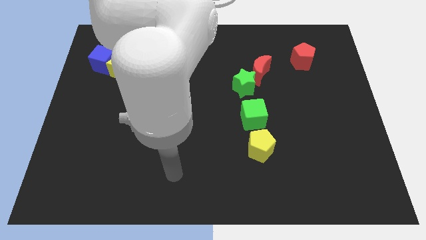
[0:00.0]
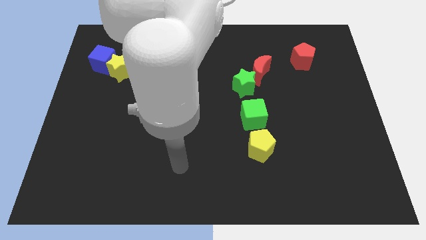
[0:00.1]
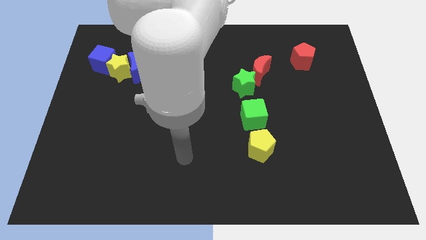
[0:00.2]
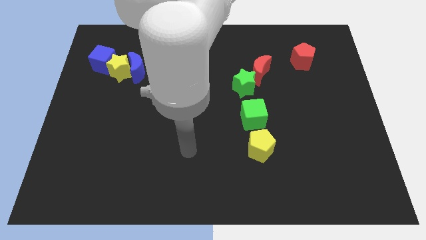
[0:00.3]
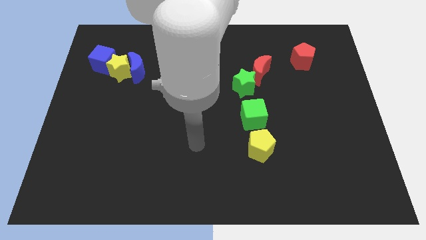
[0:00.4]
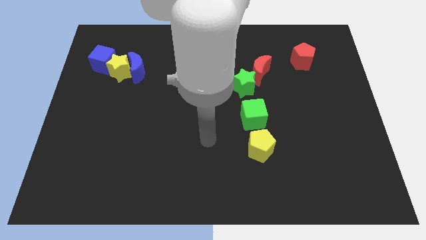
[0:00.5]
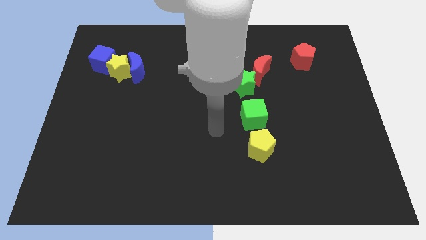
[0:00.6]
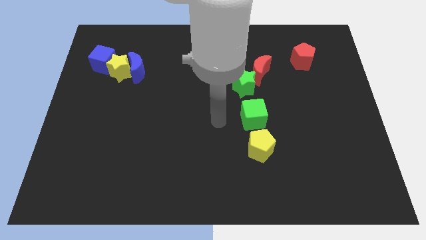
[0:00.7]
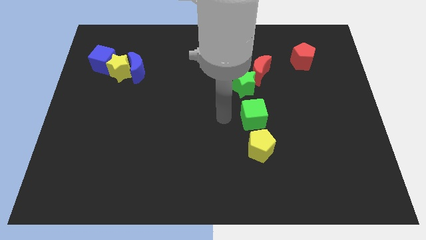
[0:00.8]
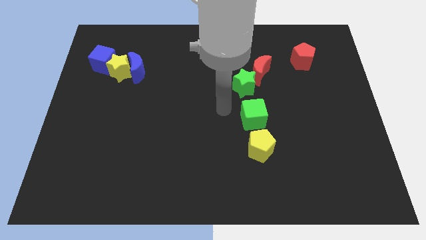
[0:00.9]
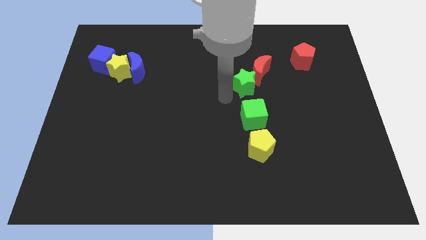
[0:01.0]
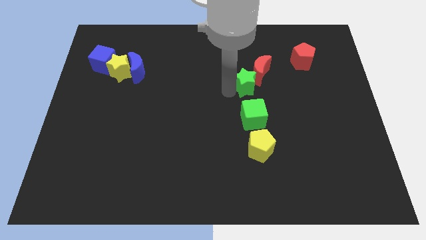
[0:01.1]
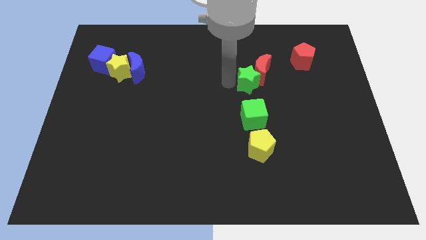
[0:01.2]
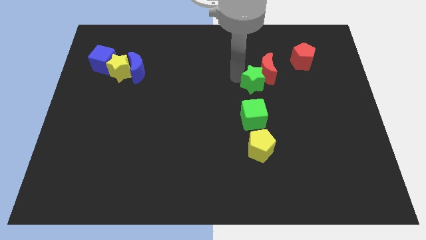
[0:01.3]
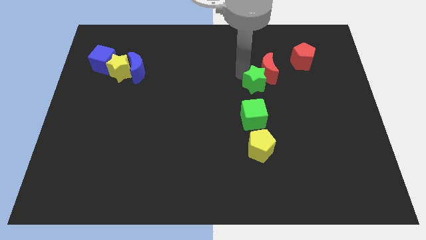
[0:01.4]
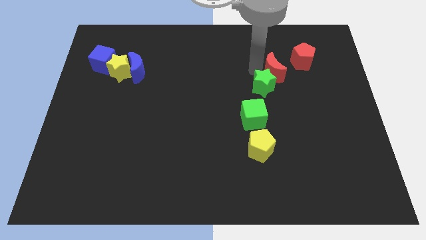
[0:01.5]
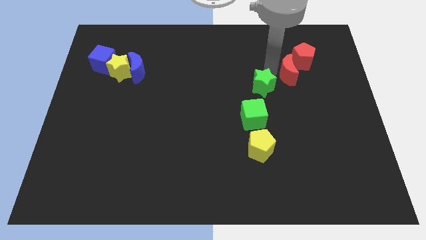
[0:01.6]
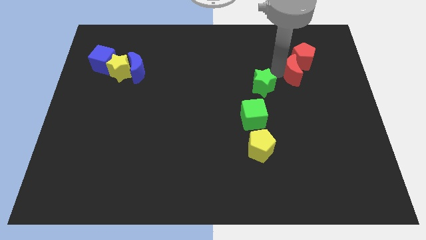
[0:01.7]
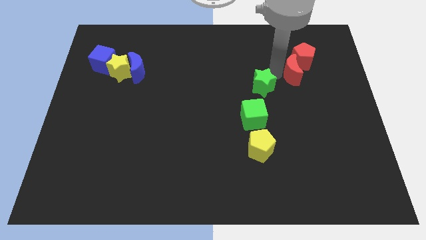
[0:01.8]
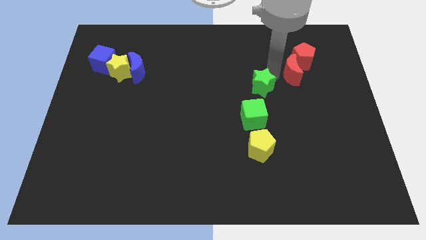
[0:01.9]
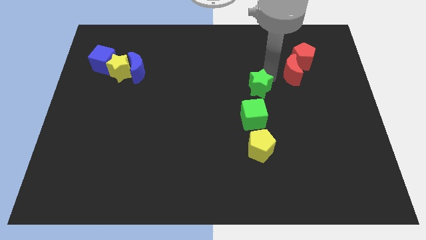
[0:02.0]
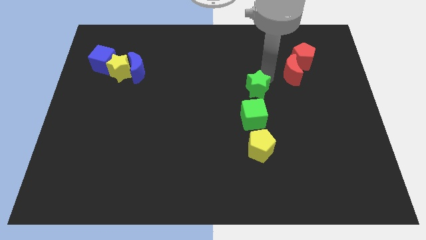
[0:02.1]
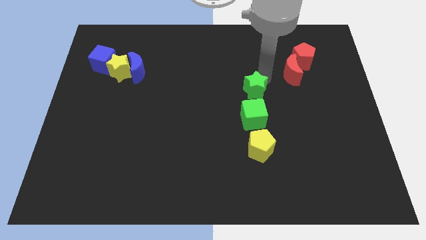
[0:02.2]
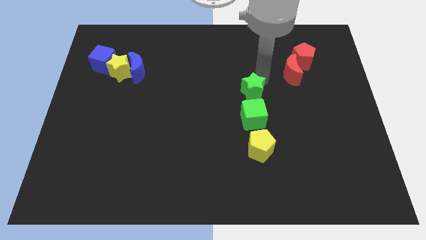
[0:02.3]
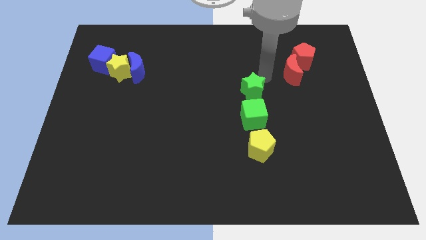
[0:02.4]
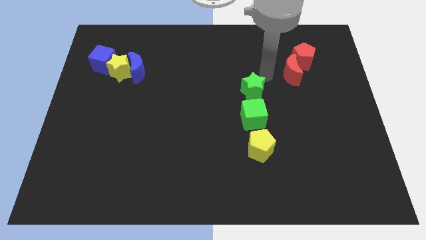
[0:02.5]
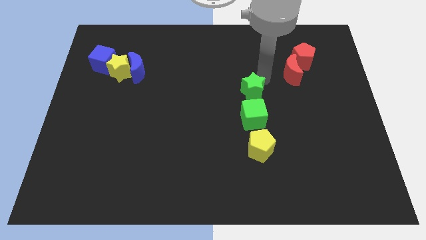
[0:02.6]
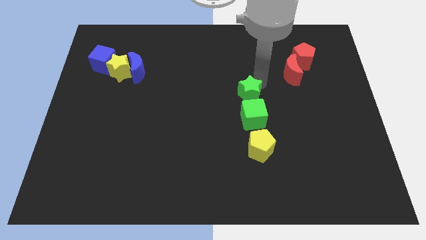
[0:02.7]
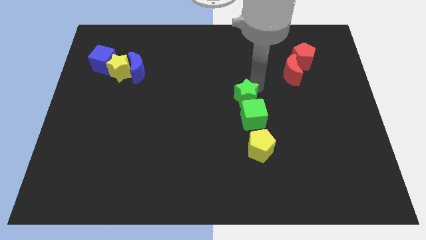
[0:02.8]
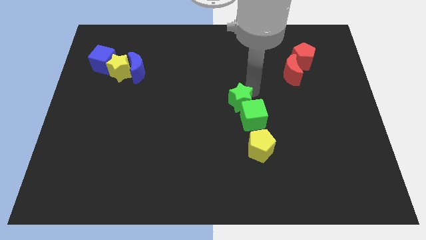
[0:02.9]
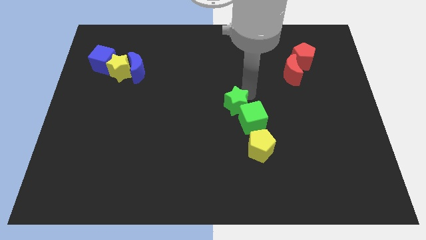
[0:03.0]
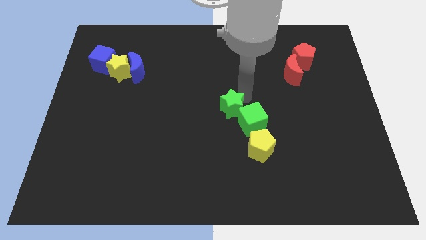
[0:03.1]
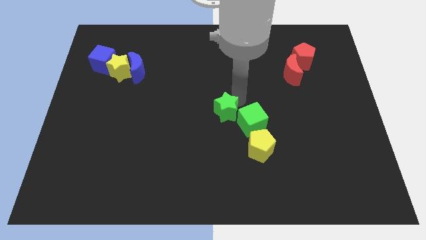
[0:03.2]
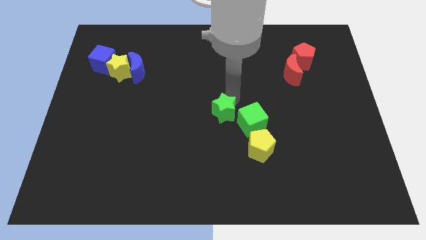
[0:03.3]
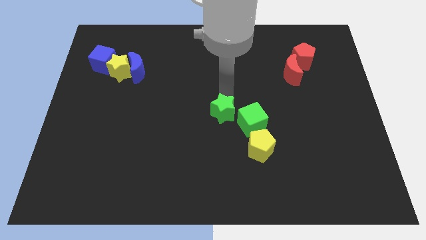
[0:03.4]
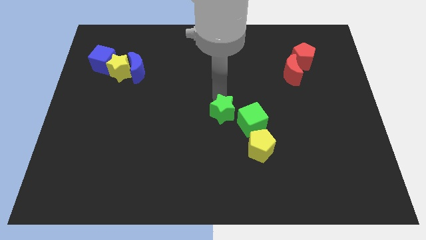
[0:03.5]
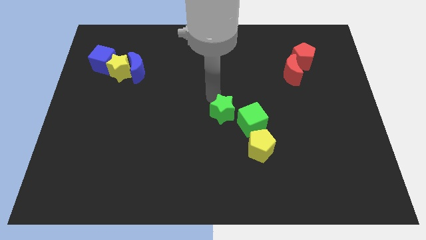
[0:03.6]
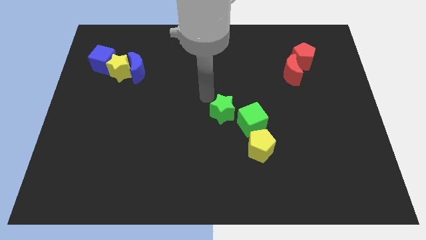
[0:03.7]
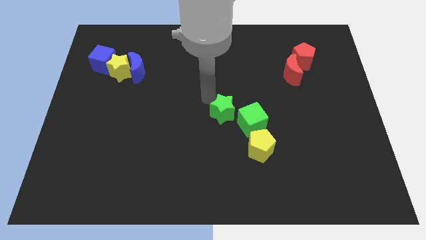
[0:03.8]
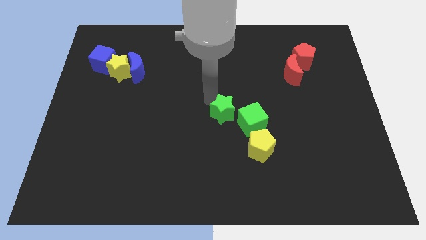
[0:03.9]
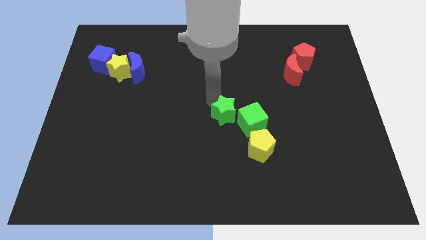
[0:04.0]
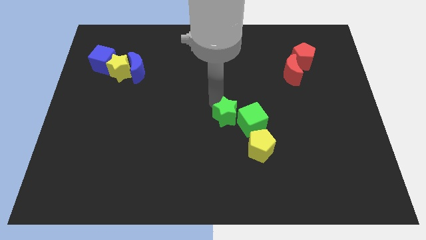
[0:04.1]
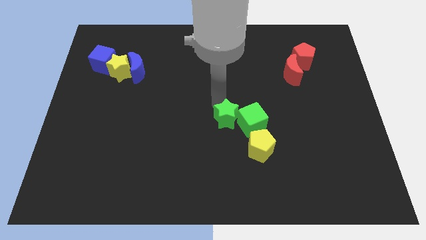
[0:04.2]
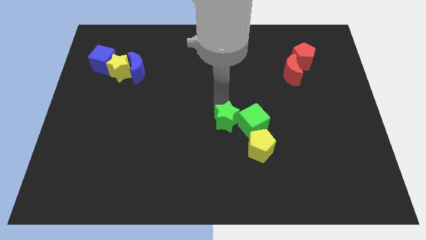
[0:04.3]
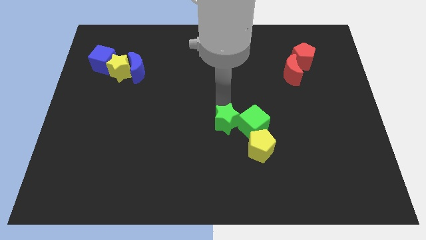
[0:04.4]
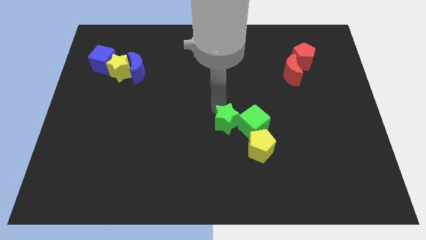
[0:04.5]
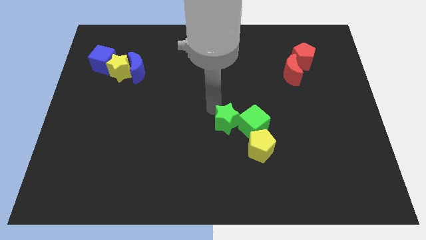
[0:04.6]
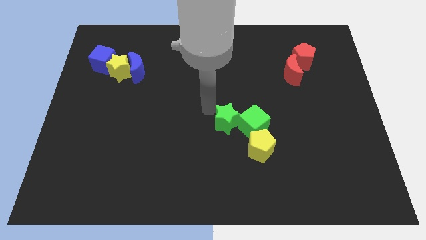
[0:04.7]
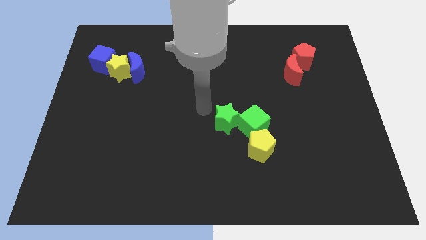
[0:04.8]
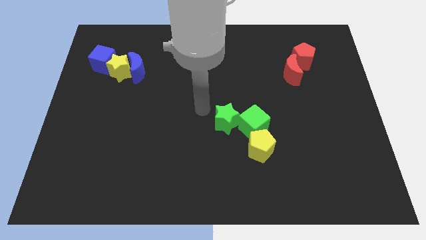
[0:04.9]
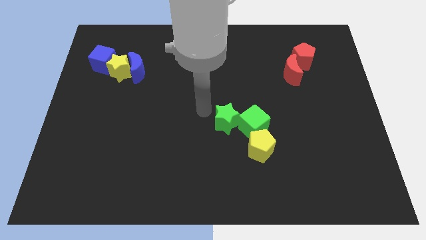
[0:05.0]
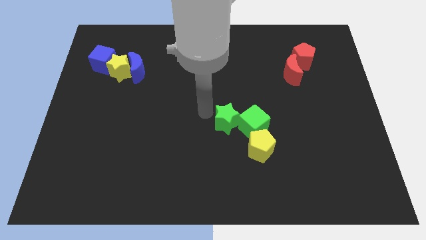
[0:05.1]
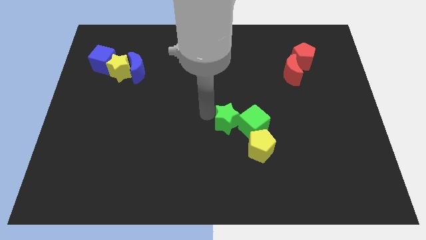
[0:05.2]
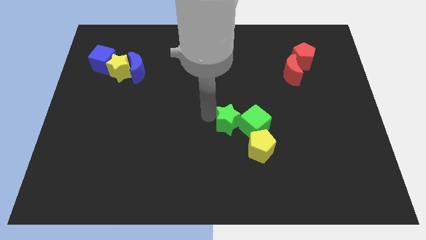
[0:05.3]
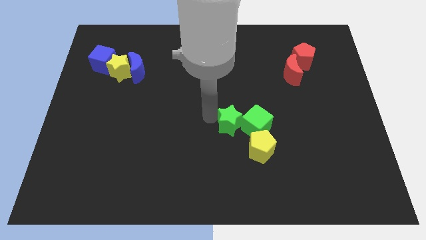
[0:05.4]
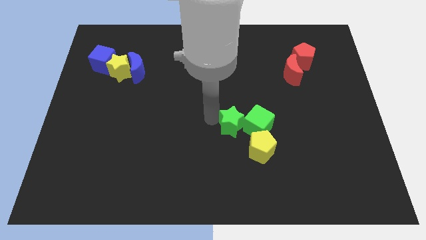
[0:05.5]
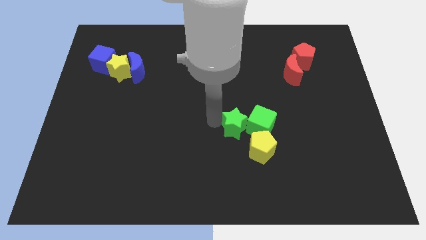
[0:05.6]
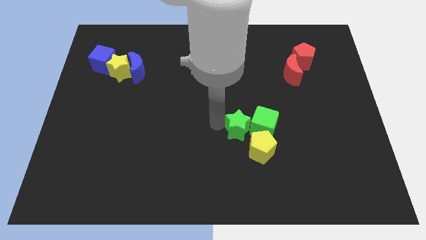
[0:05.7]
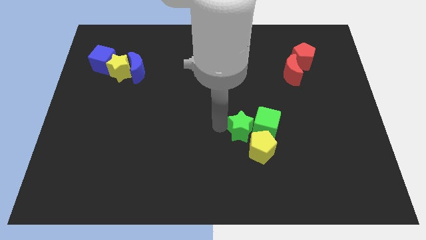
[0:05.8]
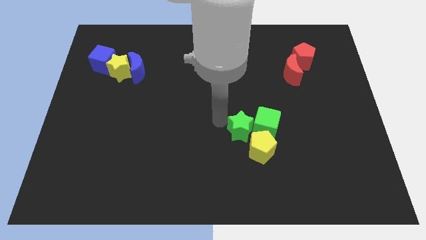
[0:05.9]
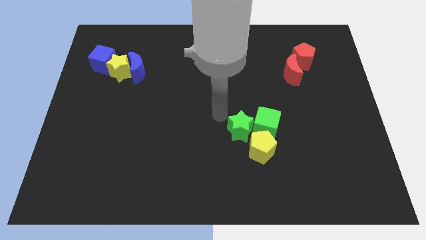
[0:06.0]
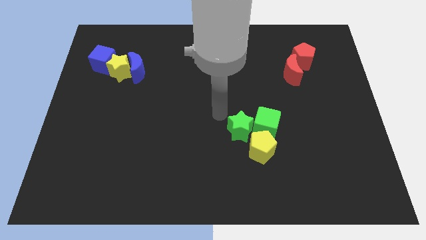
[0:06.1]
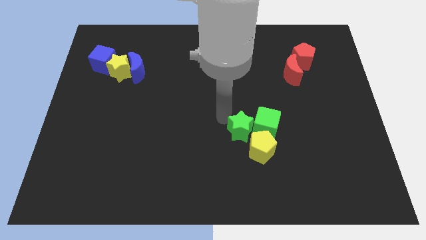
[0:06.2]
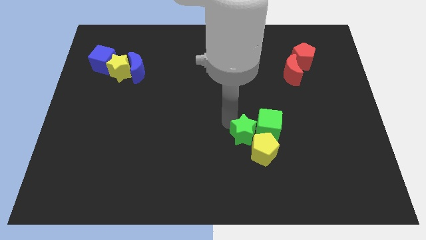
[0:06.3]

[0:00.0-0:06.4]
move the green star to the yellow pentagon

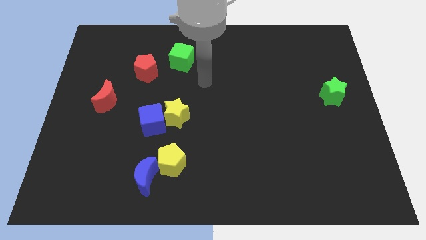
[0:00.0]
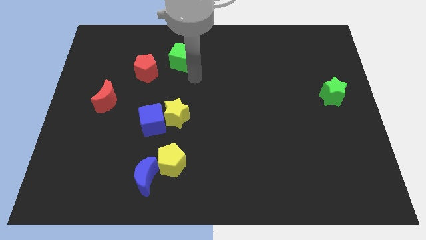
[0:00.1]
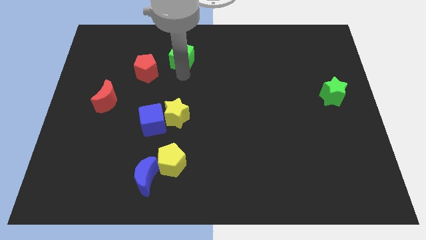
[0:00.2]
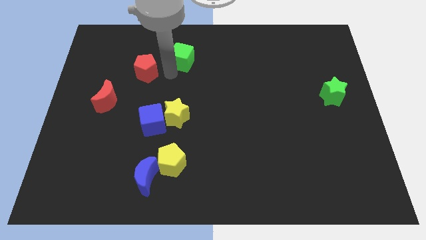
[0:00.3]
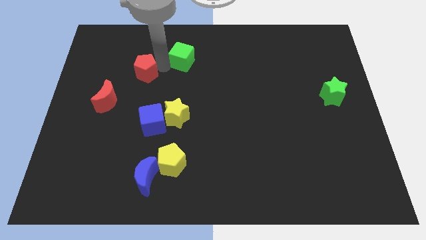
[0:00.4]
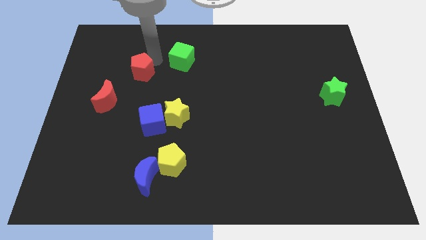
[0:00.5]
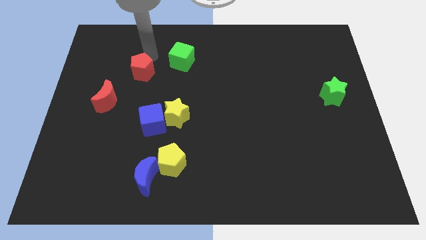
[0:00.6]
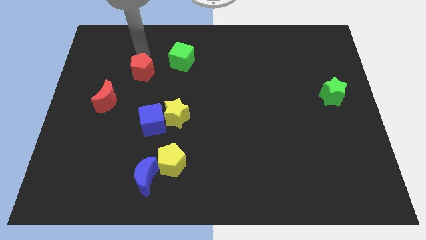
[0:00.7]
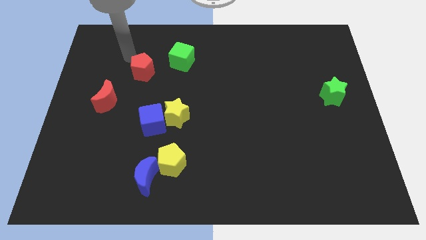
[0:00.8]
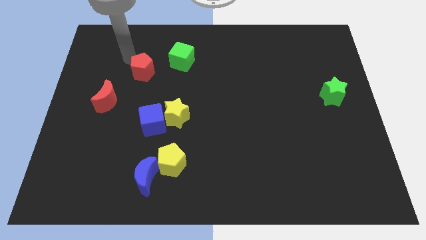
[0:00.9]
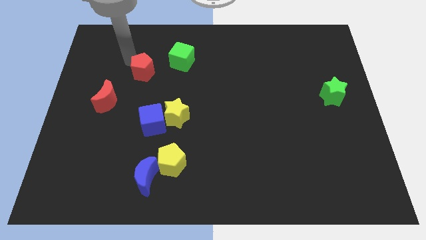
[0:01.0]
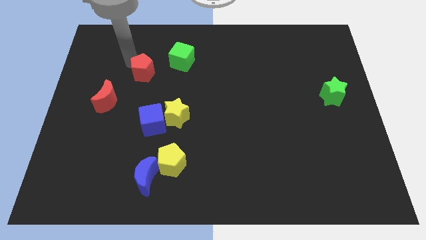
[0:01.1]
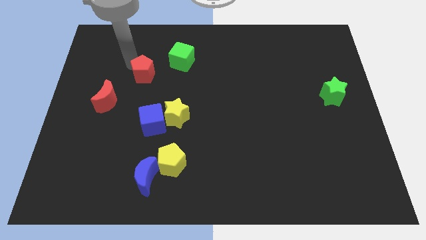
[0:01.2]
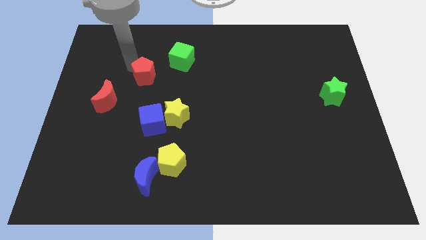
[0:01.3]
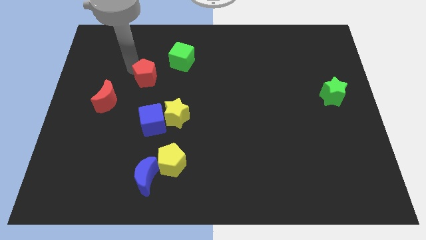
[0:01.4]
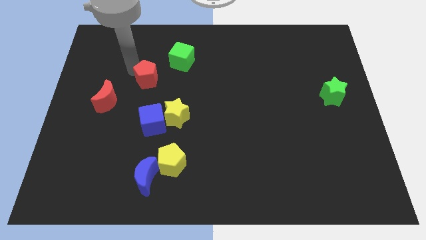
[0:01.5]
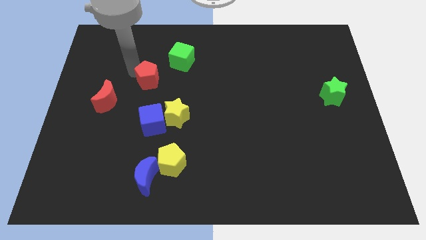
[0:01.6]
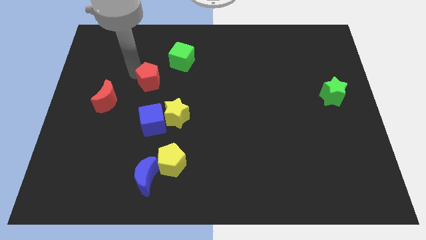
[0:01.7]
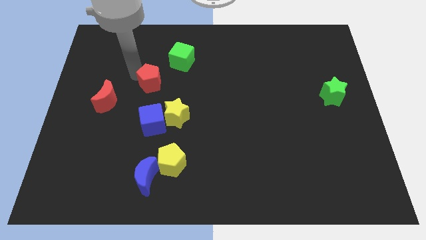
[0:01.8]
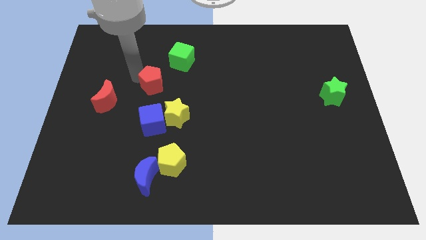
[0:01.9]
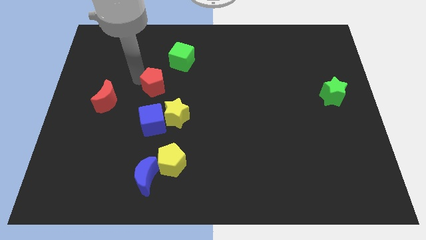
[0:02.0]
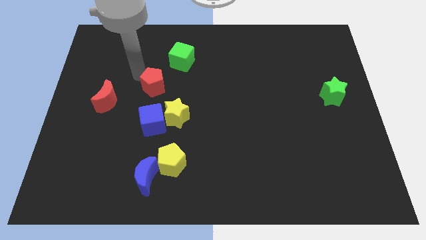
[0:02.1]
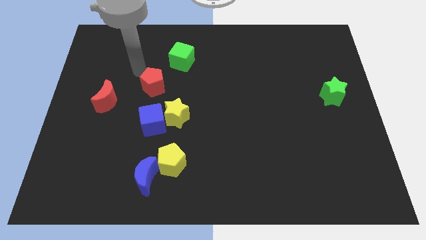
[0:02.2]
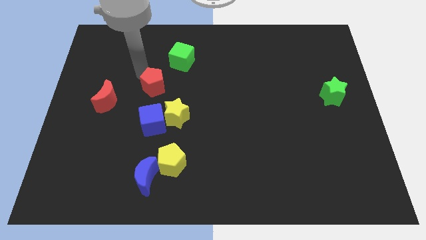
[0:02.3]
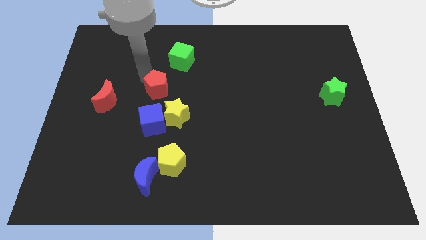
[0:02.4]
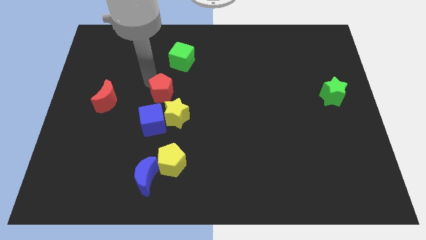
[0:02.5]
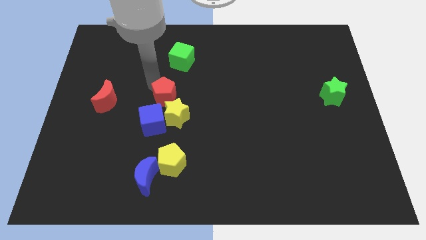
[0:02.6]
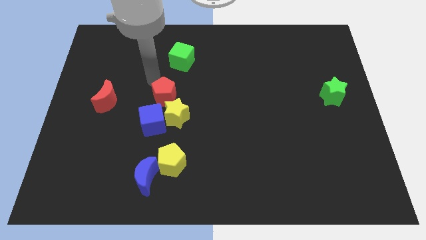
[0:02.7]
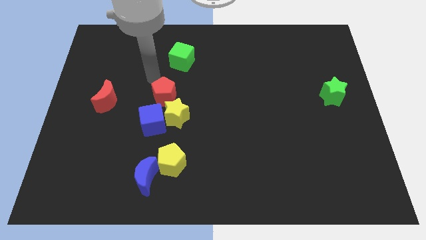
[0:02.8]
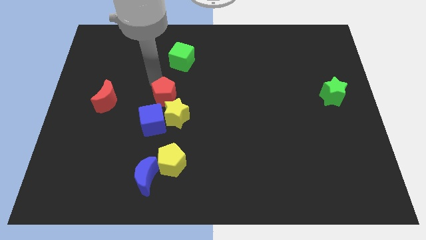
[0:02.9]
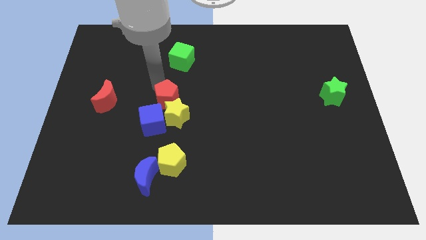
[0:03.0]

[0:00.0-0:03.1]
slide the red pentagon to the yellow star
